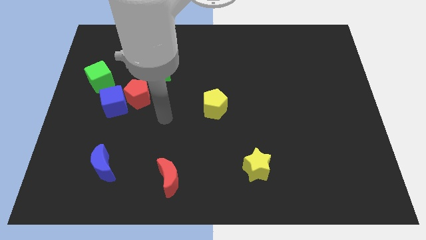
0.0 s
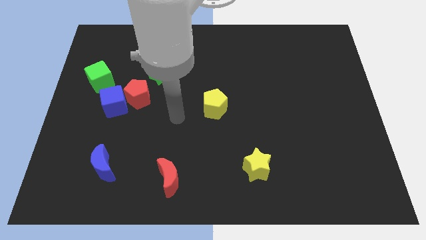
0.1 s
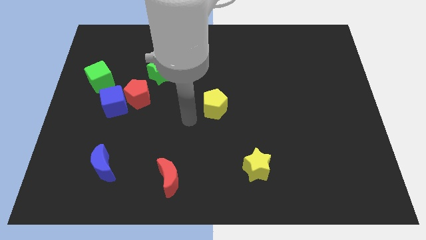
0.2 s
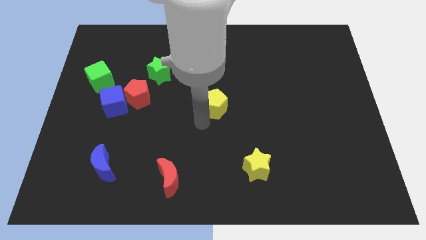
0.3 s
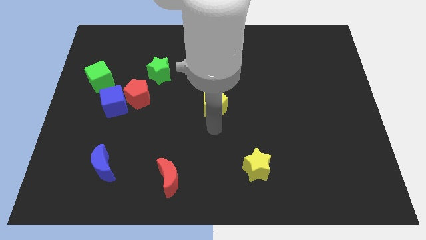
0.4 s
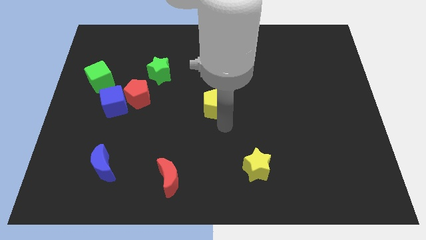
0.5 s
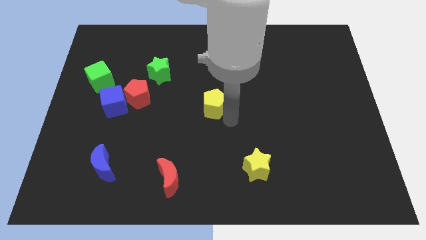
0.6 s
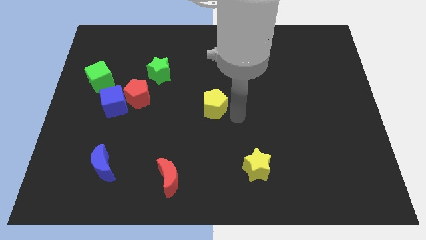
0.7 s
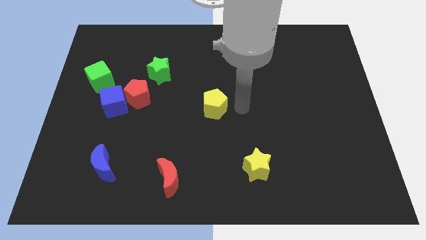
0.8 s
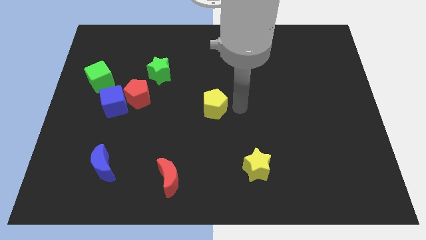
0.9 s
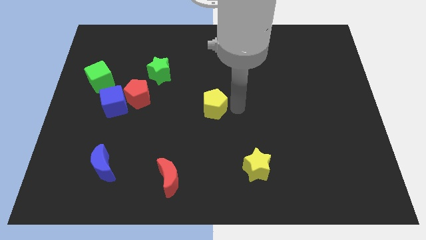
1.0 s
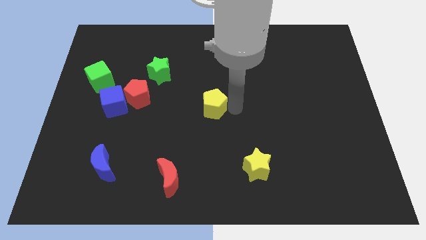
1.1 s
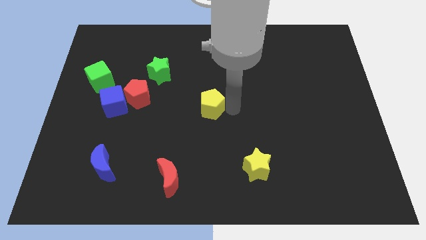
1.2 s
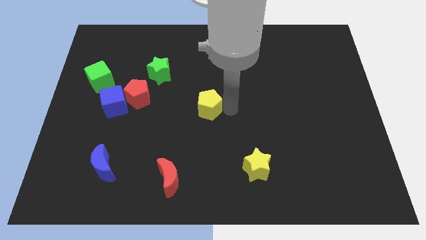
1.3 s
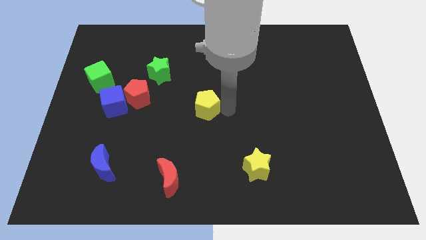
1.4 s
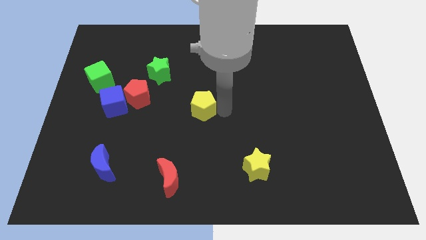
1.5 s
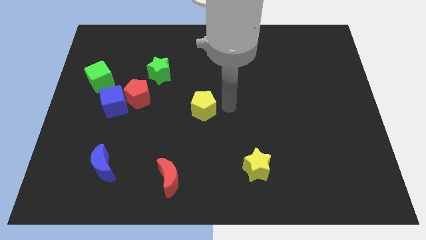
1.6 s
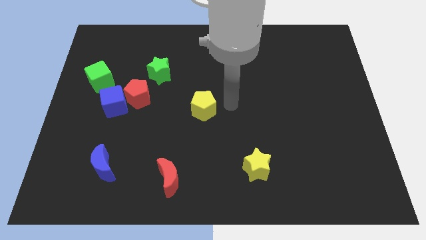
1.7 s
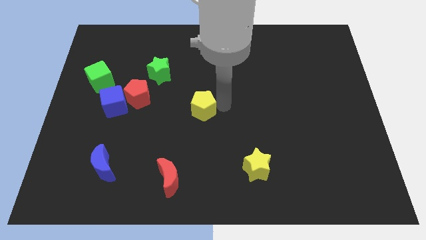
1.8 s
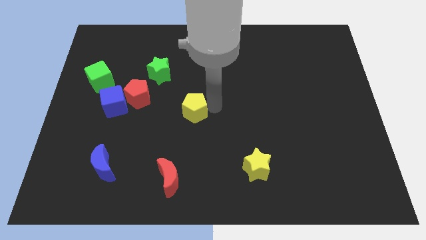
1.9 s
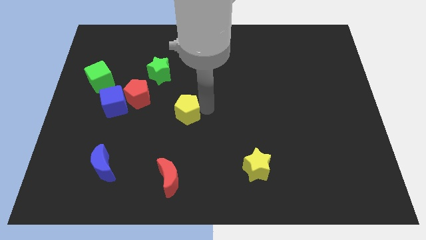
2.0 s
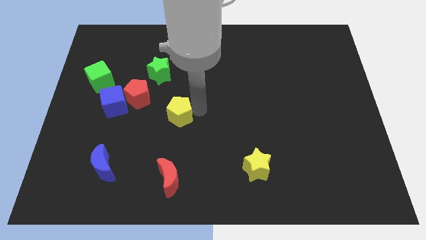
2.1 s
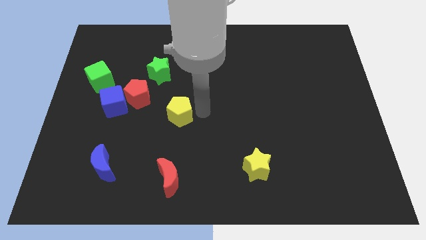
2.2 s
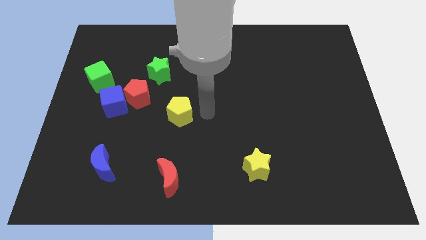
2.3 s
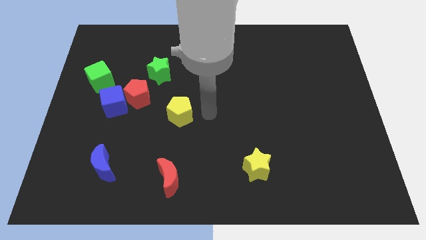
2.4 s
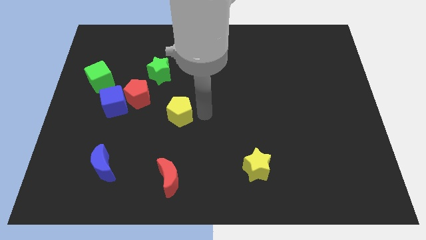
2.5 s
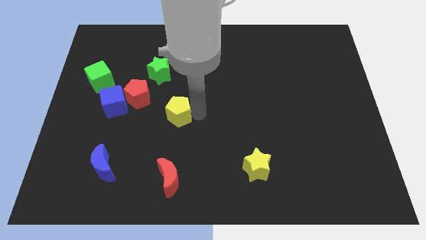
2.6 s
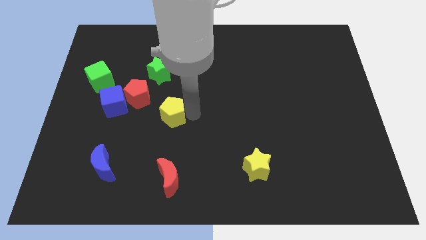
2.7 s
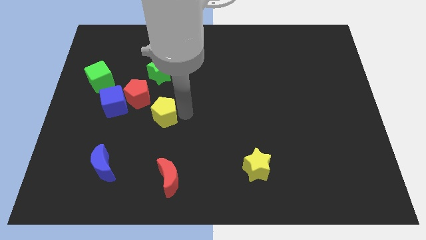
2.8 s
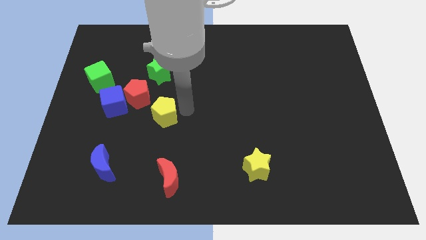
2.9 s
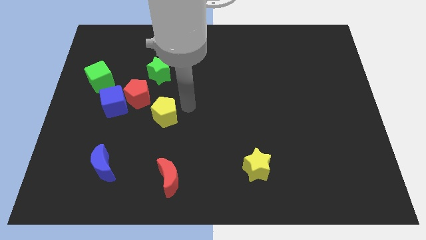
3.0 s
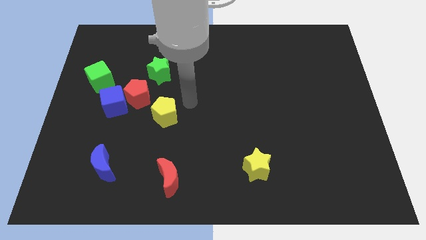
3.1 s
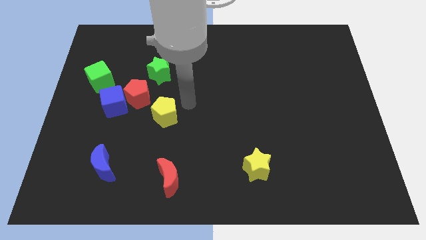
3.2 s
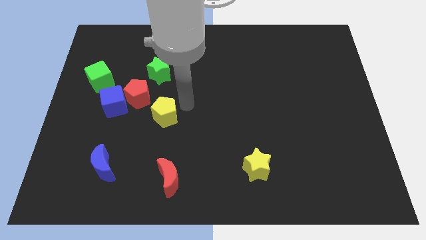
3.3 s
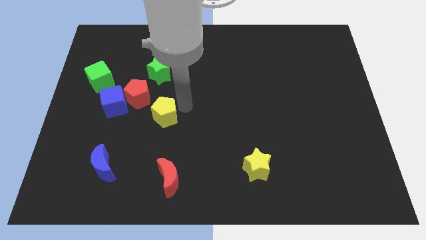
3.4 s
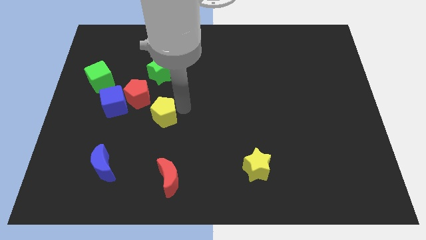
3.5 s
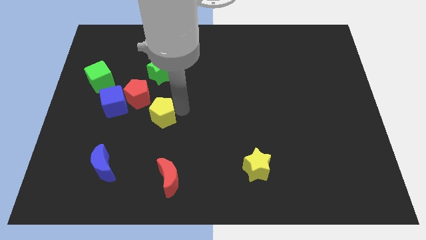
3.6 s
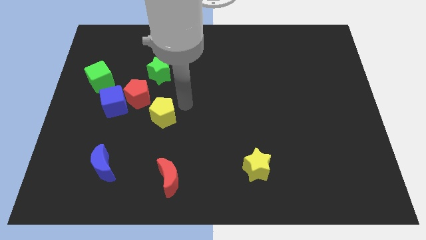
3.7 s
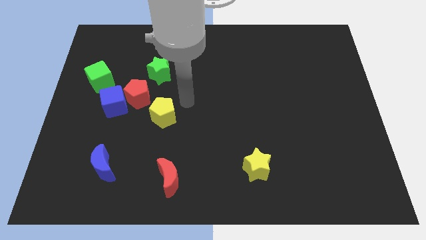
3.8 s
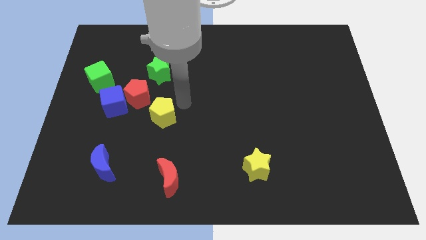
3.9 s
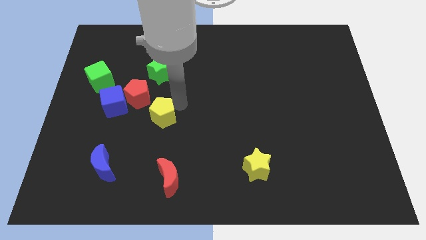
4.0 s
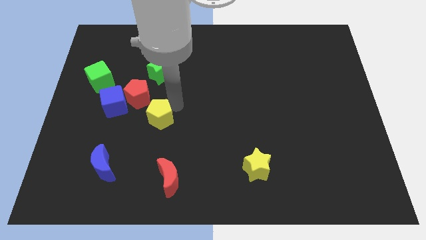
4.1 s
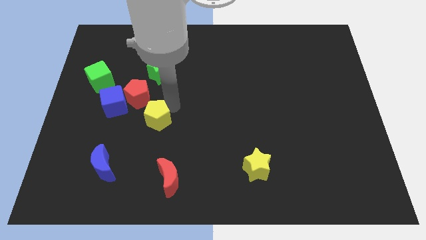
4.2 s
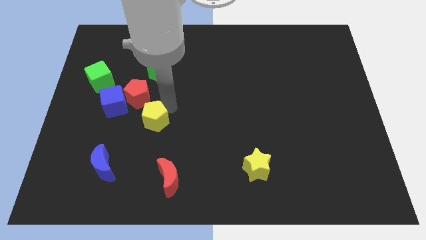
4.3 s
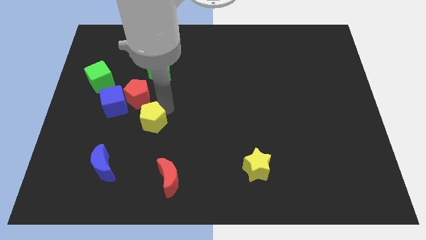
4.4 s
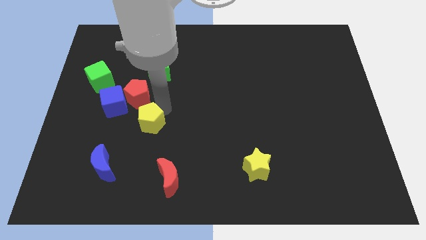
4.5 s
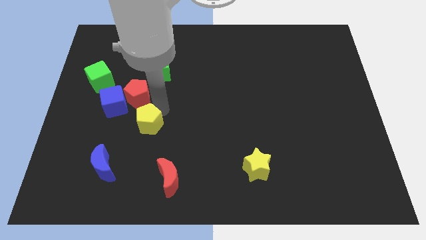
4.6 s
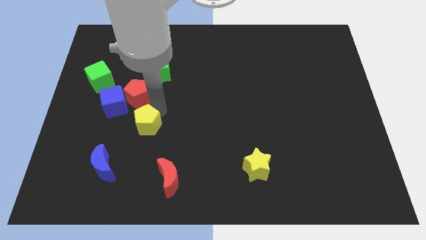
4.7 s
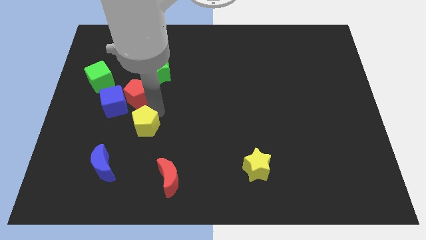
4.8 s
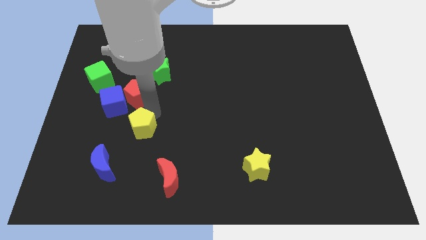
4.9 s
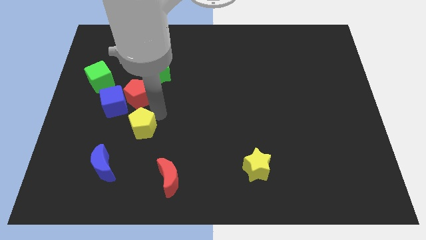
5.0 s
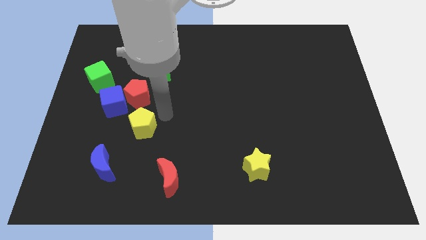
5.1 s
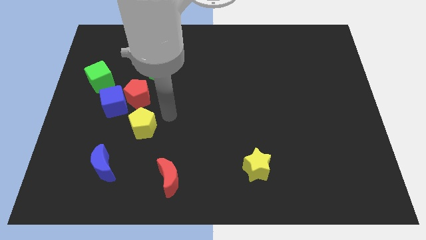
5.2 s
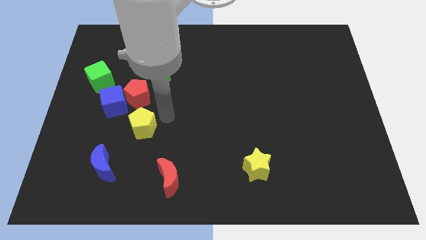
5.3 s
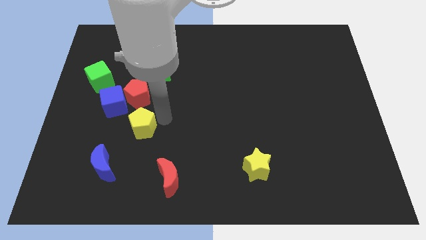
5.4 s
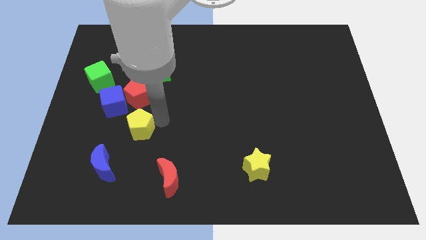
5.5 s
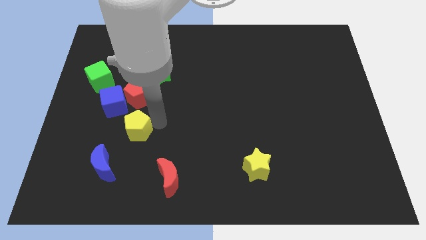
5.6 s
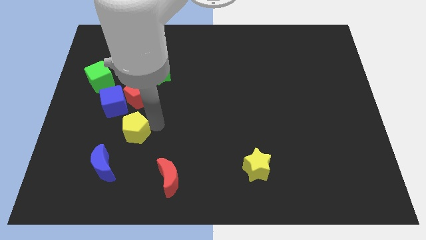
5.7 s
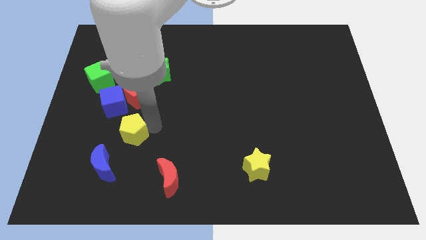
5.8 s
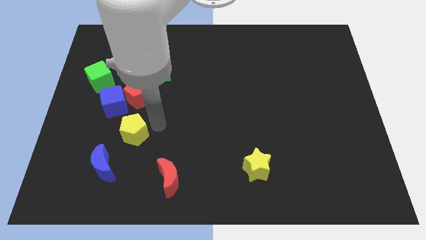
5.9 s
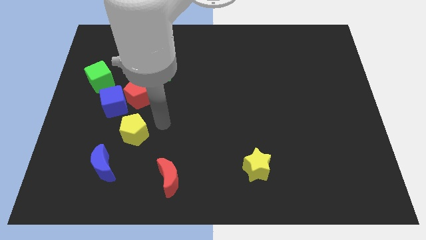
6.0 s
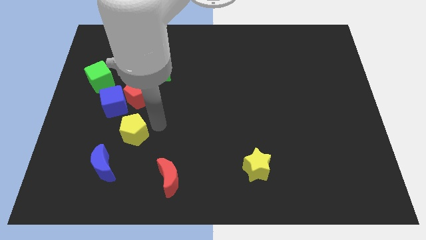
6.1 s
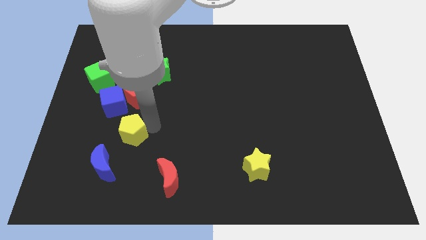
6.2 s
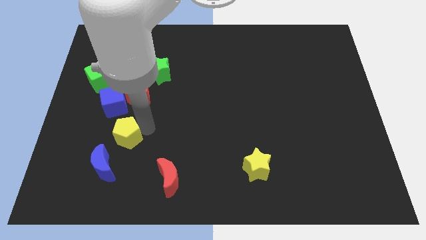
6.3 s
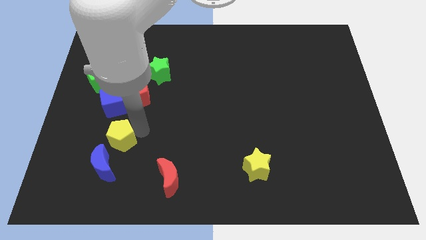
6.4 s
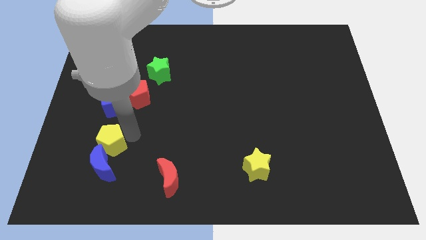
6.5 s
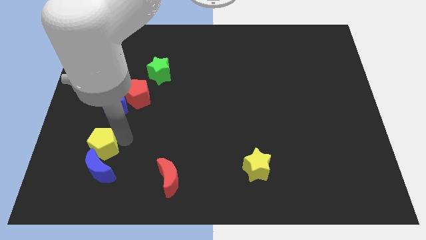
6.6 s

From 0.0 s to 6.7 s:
slide the yellow pentagon to the top left of the blue moon

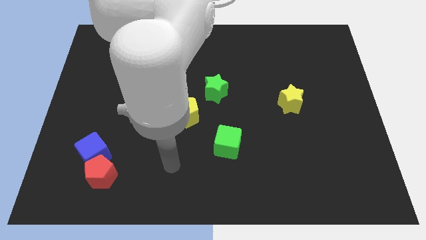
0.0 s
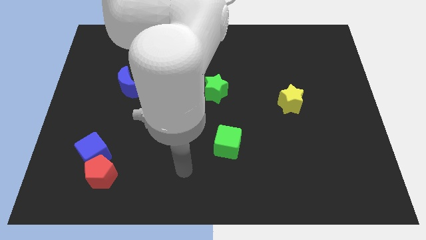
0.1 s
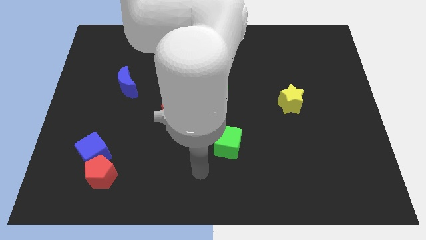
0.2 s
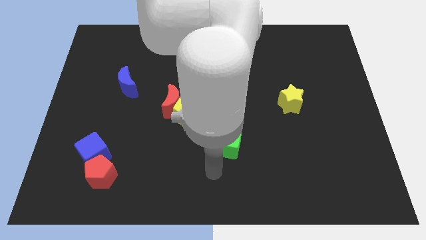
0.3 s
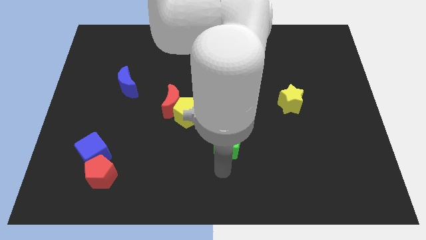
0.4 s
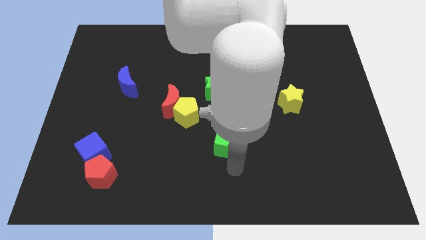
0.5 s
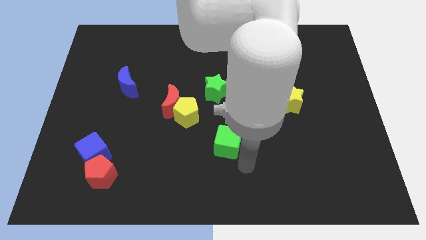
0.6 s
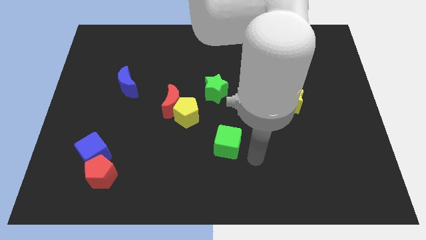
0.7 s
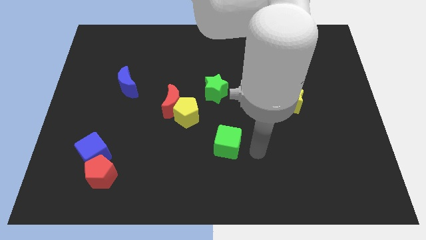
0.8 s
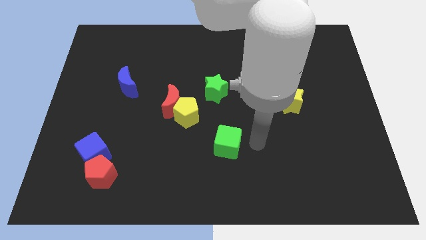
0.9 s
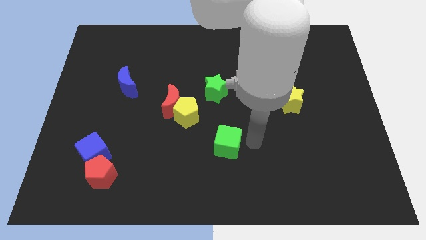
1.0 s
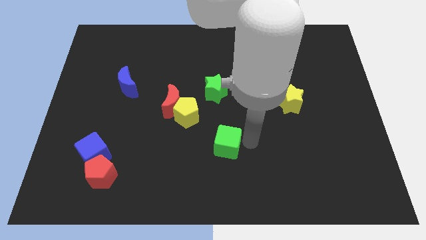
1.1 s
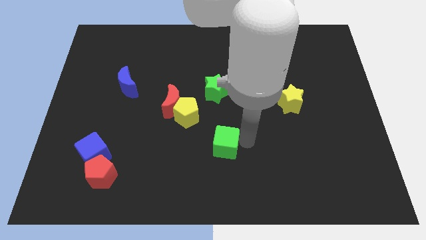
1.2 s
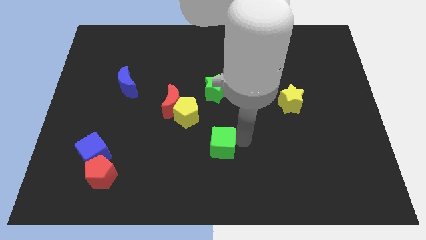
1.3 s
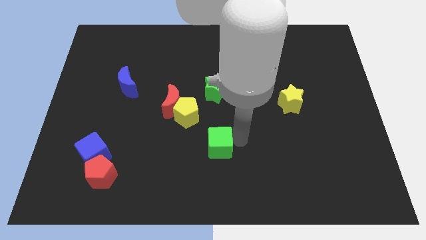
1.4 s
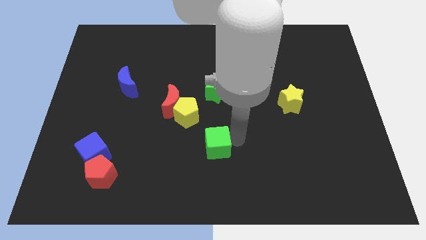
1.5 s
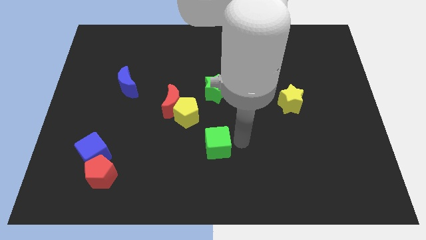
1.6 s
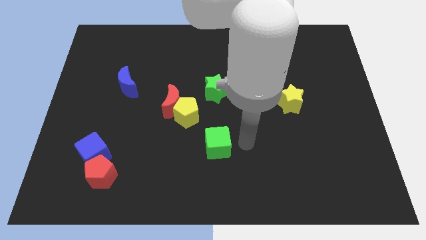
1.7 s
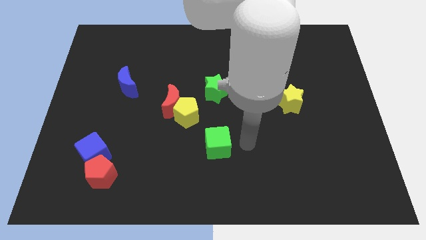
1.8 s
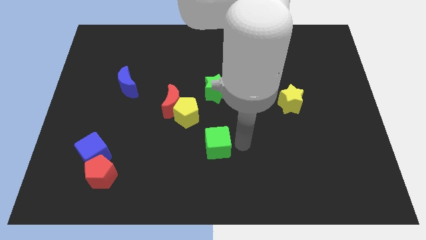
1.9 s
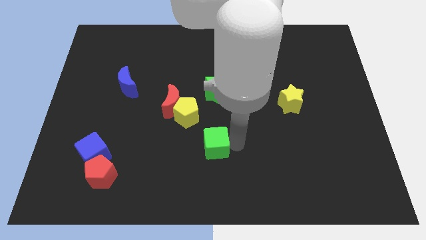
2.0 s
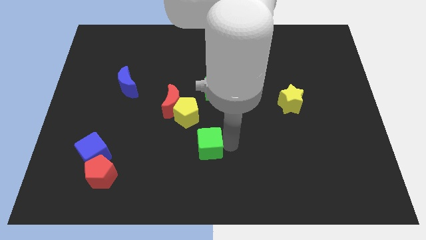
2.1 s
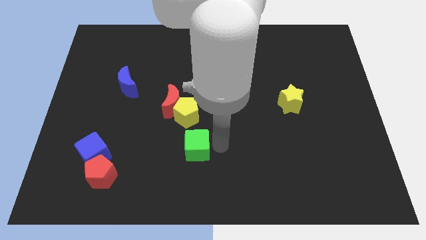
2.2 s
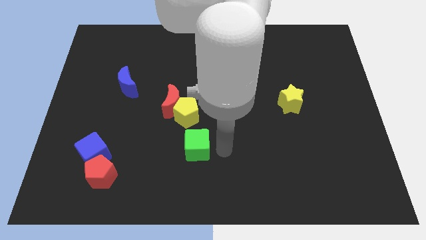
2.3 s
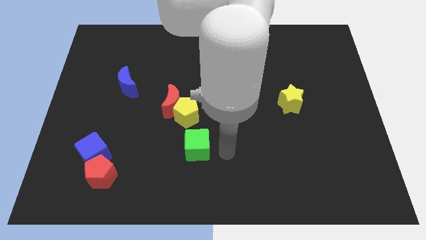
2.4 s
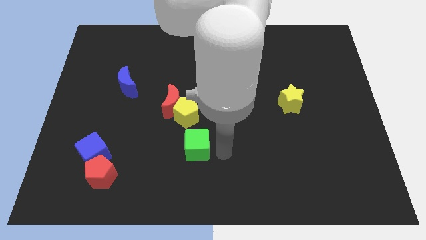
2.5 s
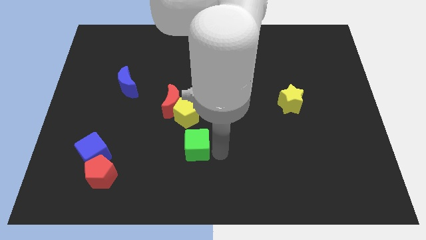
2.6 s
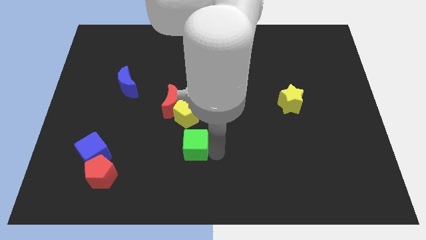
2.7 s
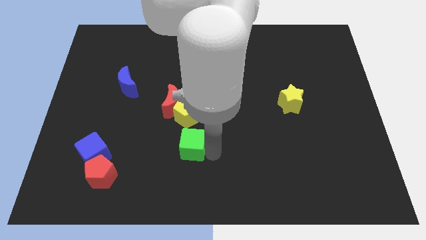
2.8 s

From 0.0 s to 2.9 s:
put the green cube to the bottom of the red moon
